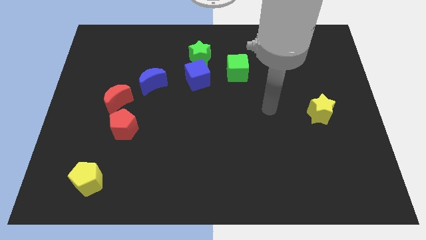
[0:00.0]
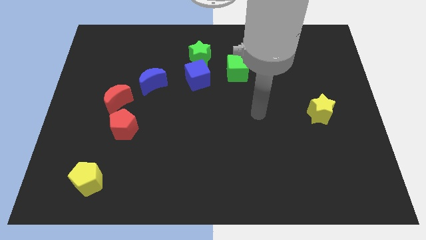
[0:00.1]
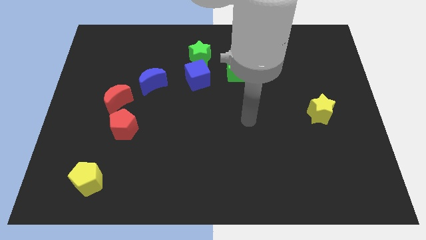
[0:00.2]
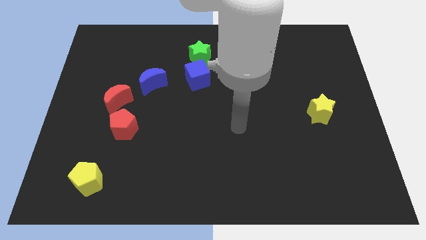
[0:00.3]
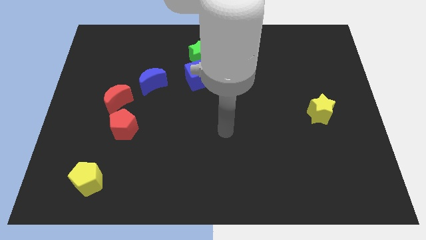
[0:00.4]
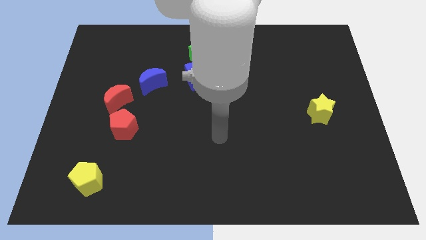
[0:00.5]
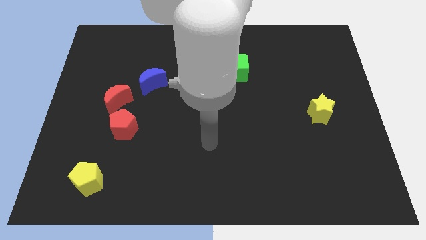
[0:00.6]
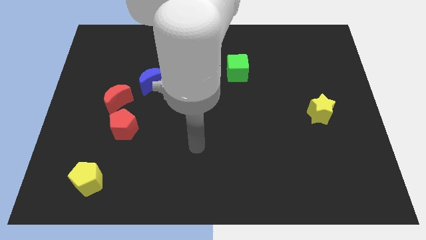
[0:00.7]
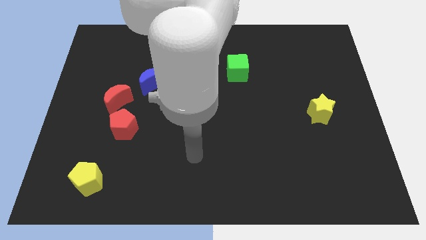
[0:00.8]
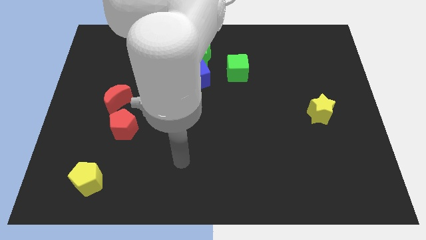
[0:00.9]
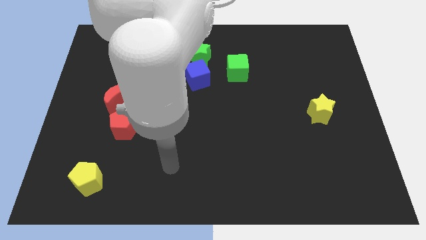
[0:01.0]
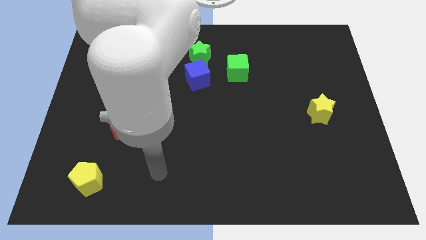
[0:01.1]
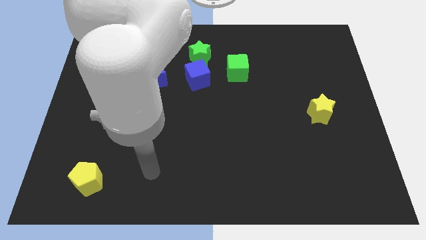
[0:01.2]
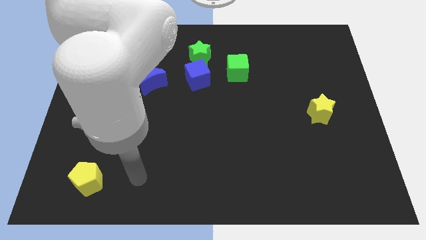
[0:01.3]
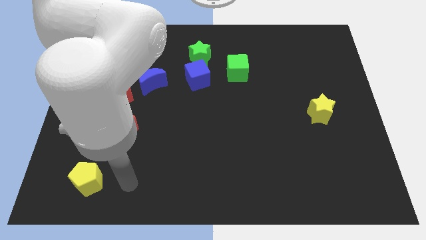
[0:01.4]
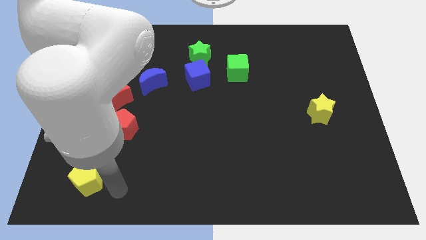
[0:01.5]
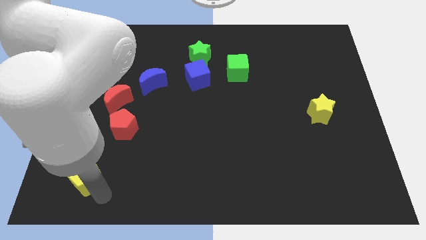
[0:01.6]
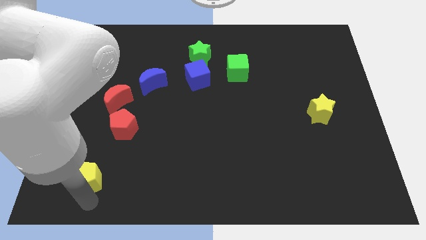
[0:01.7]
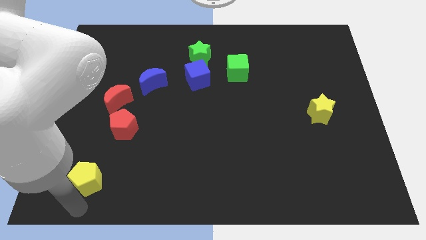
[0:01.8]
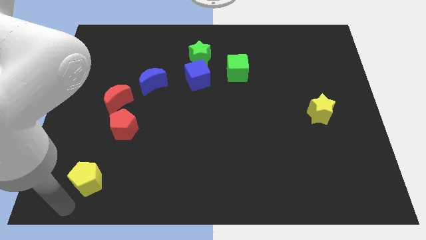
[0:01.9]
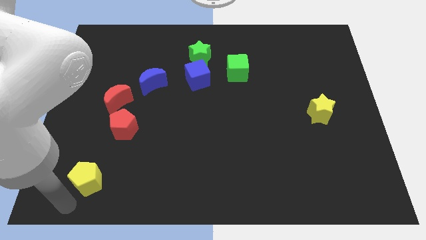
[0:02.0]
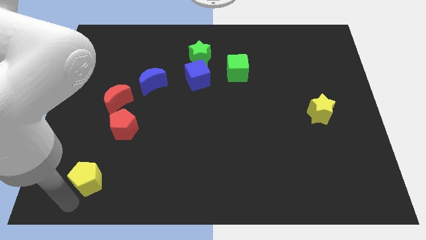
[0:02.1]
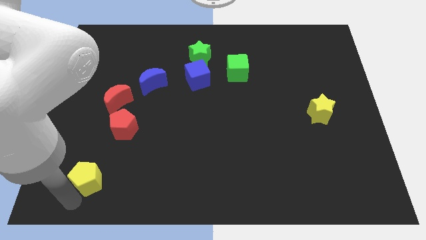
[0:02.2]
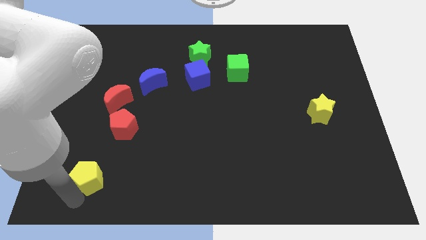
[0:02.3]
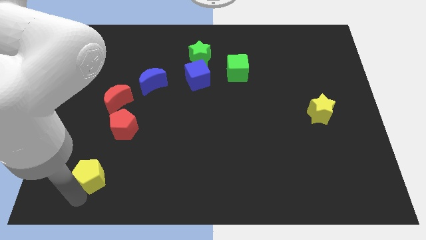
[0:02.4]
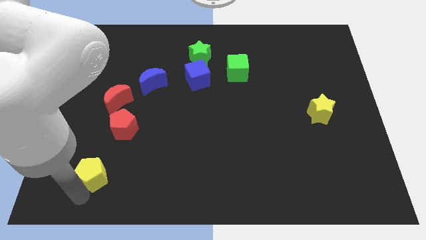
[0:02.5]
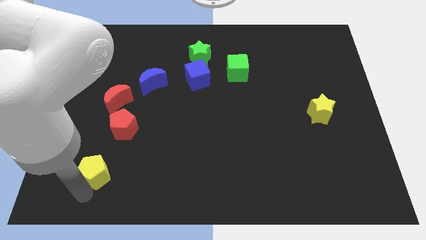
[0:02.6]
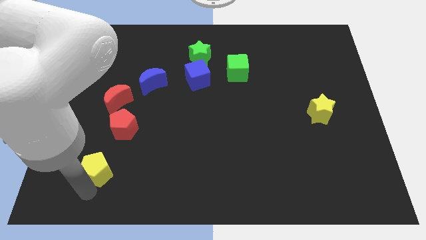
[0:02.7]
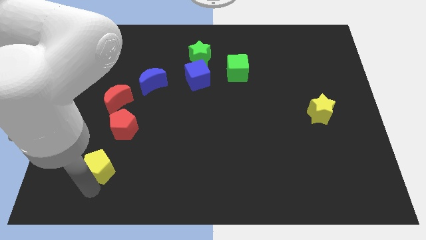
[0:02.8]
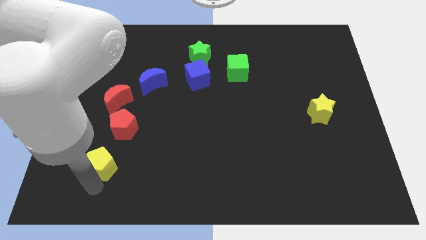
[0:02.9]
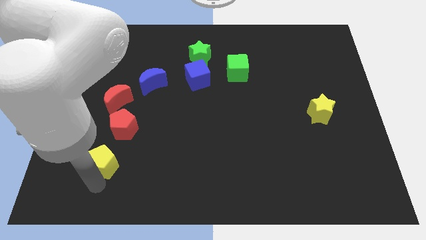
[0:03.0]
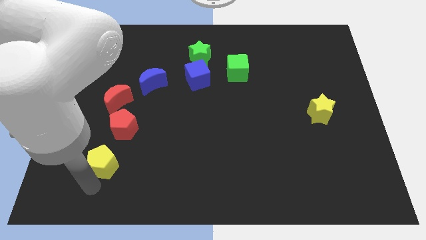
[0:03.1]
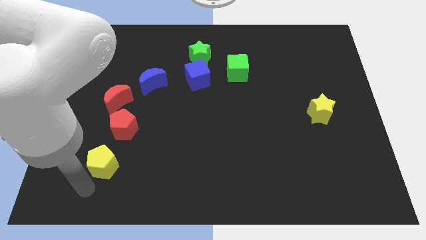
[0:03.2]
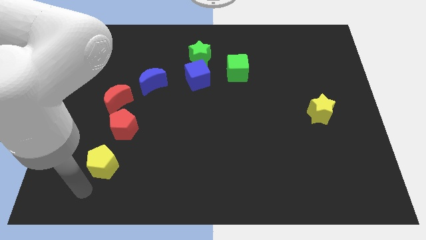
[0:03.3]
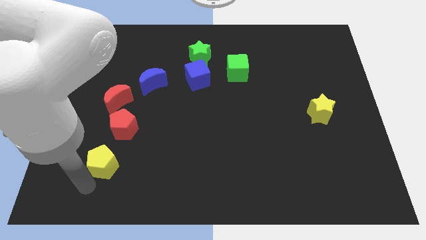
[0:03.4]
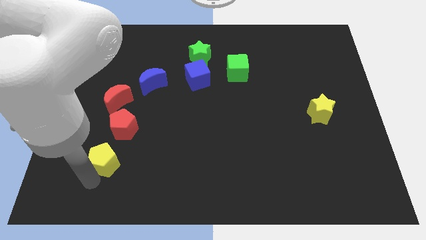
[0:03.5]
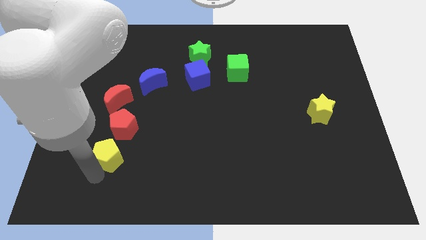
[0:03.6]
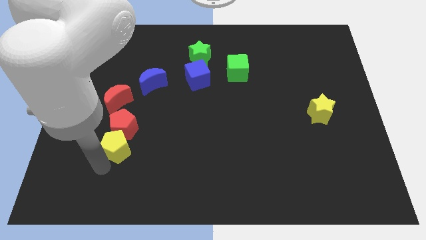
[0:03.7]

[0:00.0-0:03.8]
slide the yellow pentagon diagonally up and to the right a little

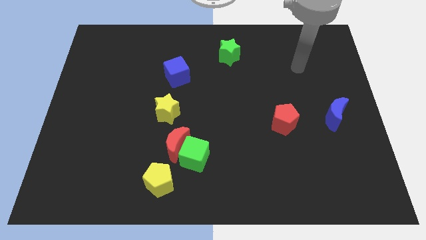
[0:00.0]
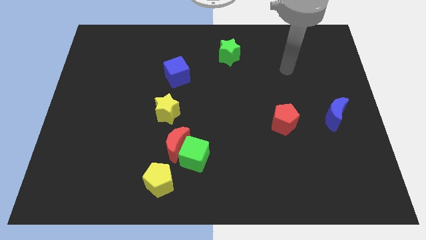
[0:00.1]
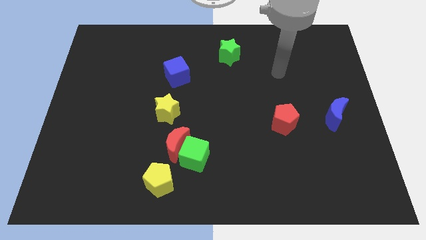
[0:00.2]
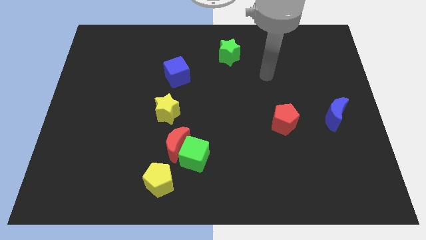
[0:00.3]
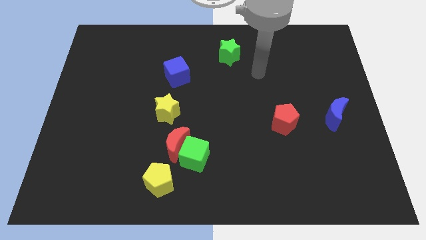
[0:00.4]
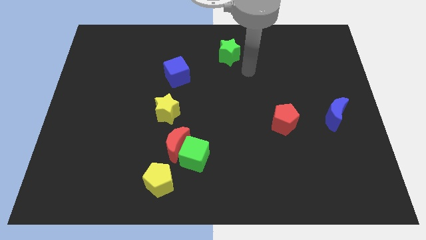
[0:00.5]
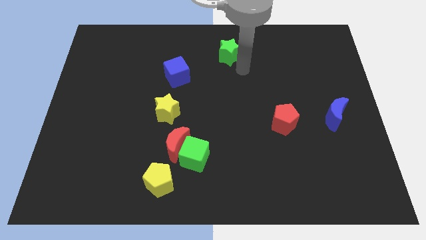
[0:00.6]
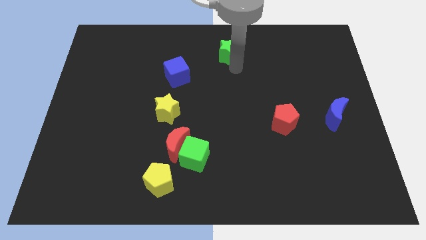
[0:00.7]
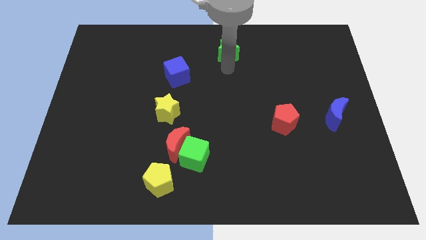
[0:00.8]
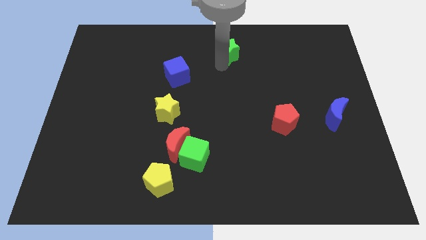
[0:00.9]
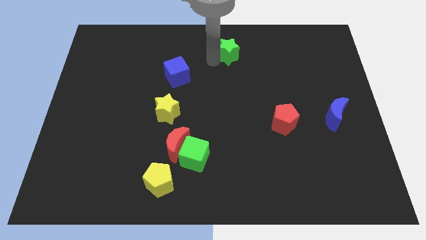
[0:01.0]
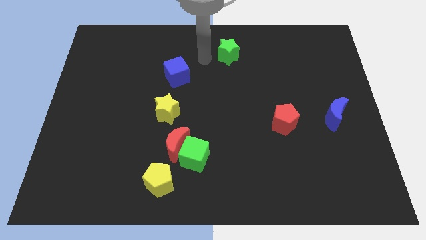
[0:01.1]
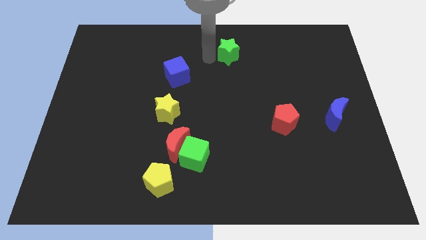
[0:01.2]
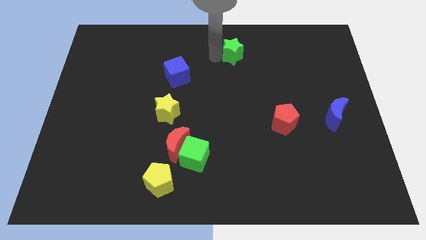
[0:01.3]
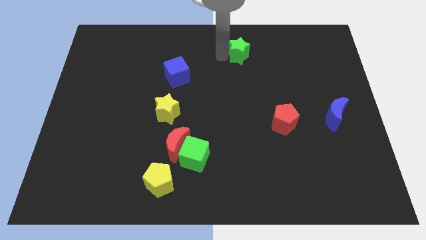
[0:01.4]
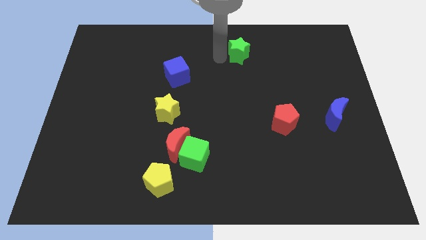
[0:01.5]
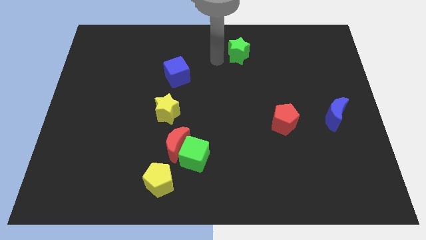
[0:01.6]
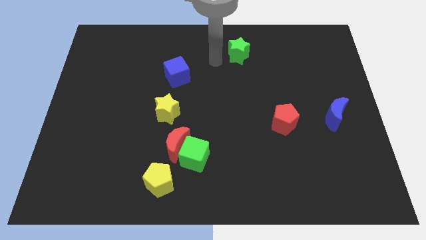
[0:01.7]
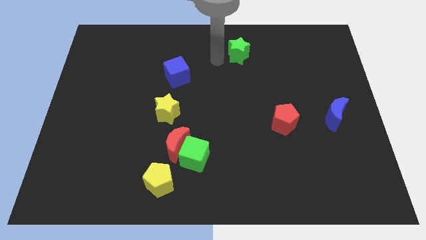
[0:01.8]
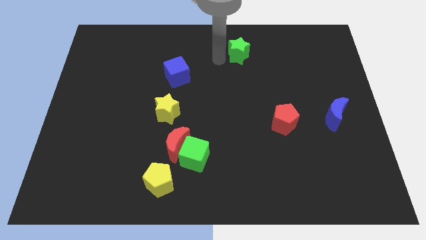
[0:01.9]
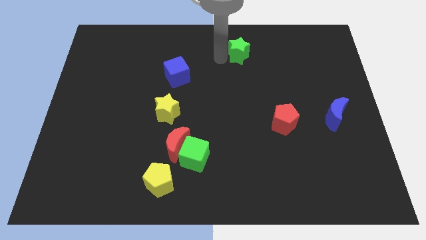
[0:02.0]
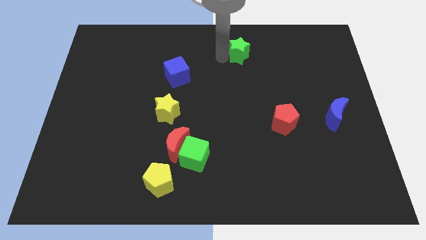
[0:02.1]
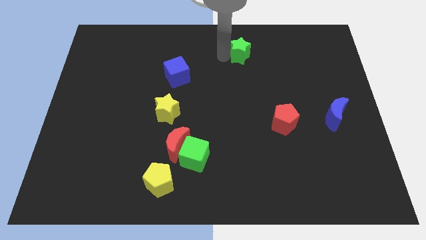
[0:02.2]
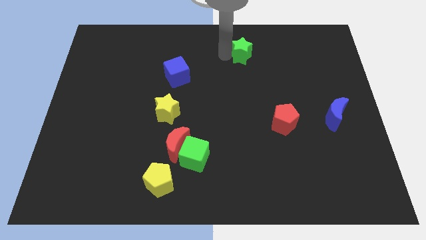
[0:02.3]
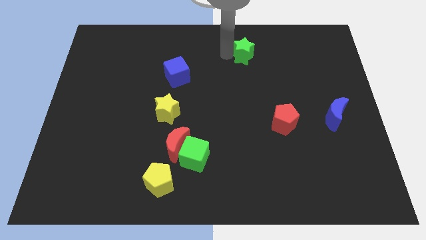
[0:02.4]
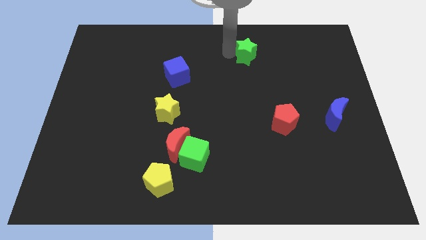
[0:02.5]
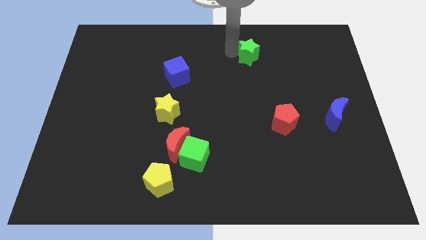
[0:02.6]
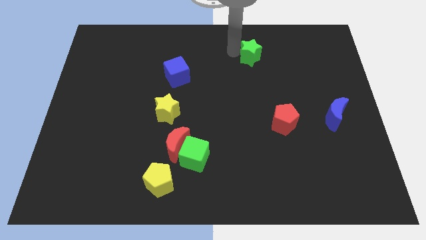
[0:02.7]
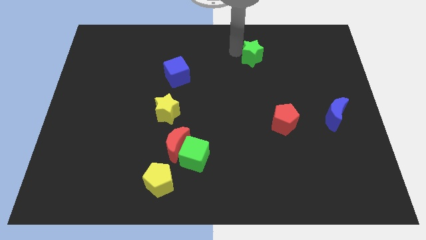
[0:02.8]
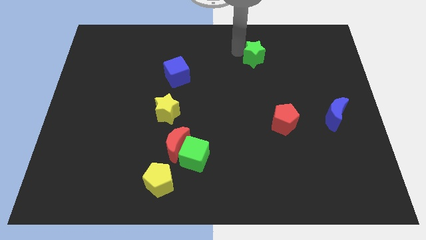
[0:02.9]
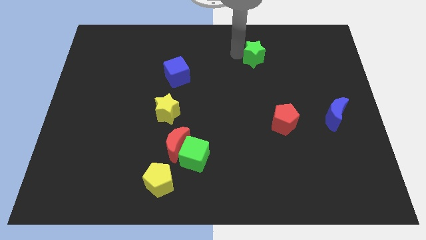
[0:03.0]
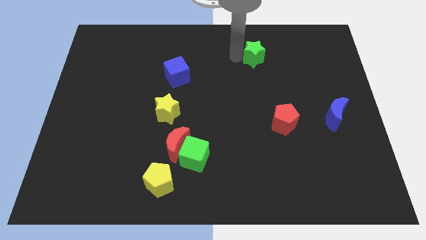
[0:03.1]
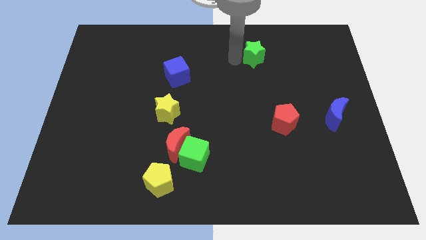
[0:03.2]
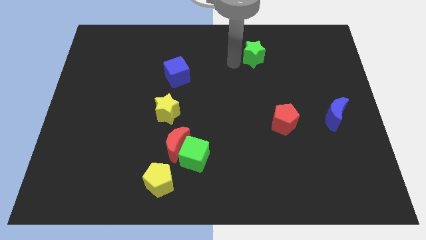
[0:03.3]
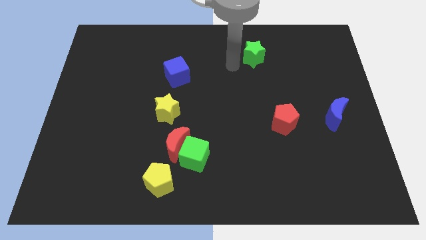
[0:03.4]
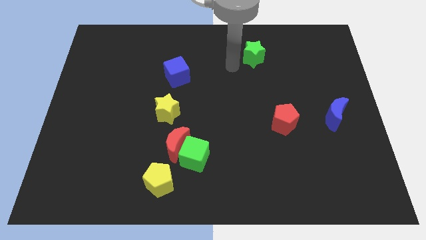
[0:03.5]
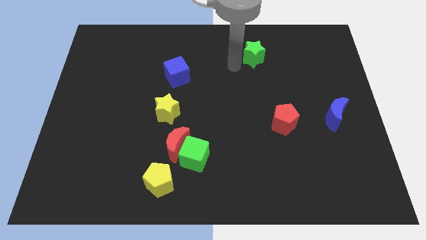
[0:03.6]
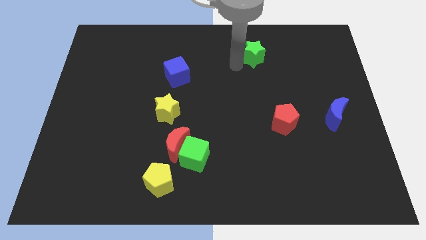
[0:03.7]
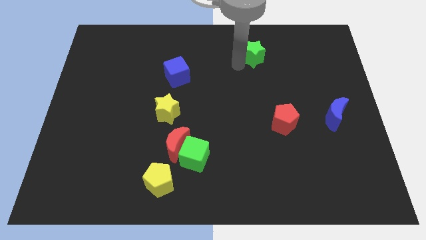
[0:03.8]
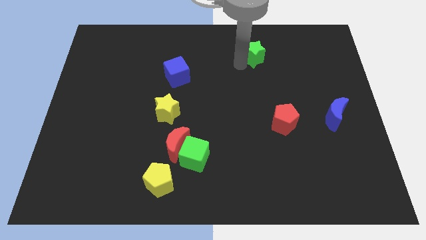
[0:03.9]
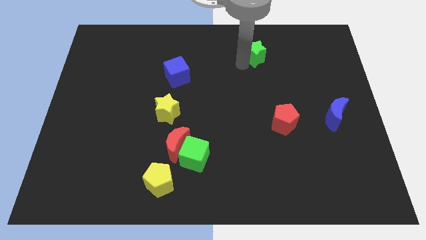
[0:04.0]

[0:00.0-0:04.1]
slide the green star right slightly
